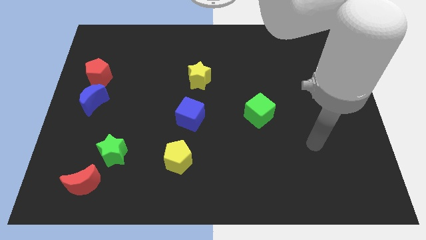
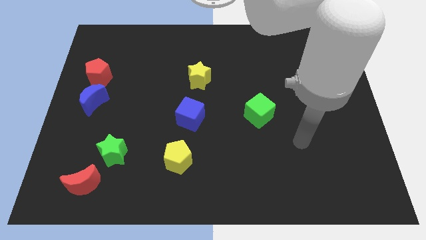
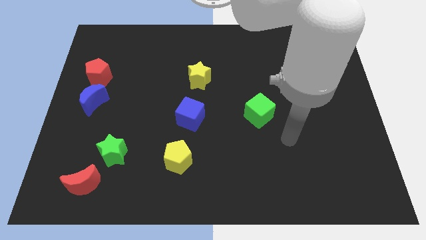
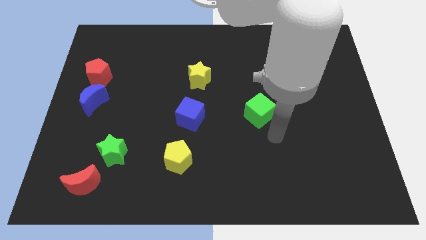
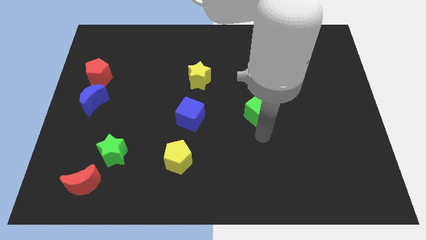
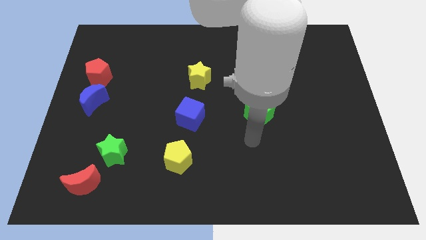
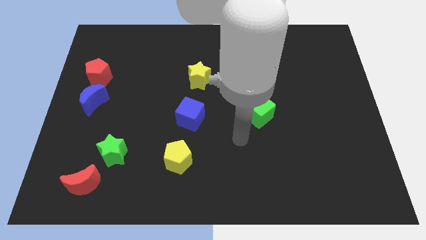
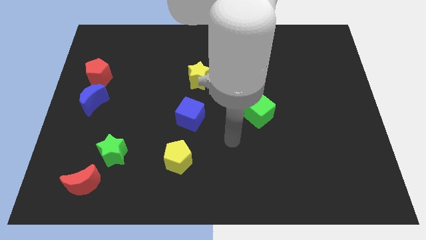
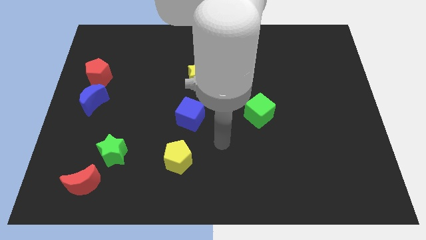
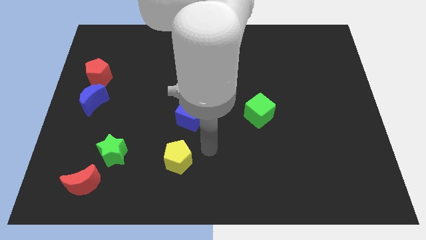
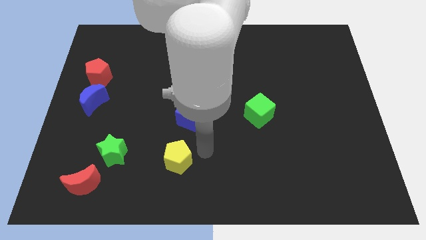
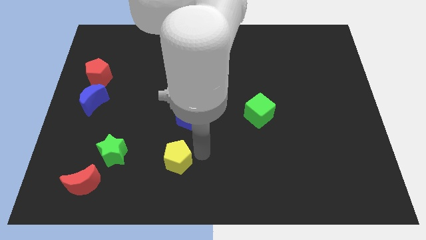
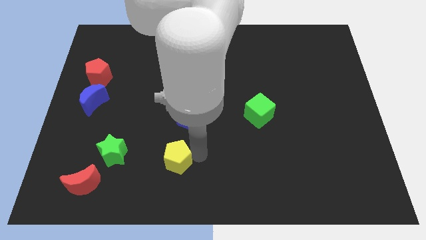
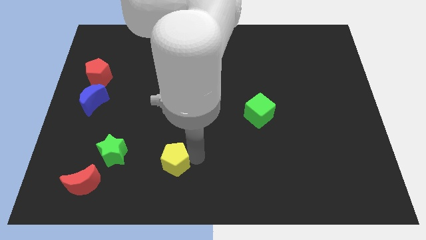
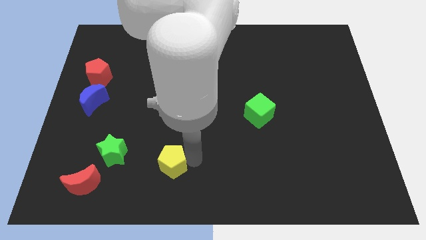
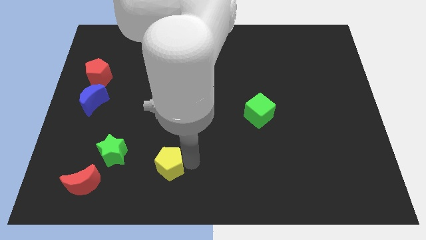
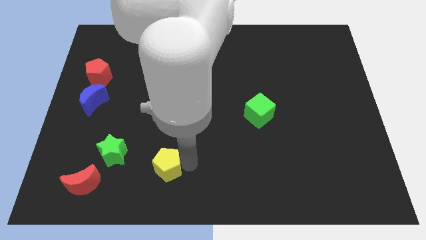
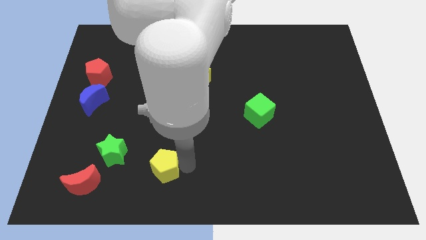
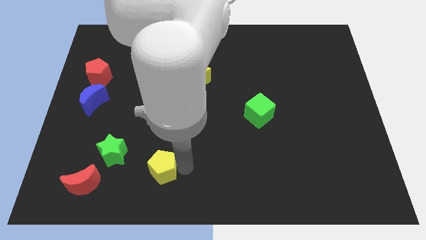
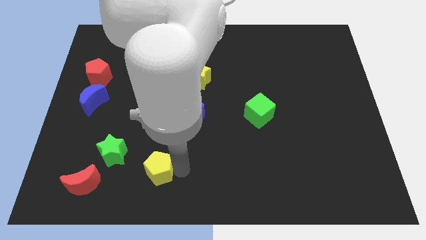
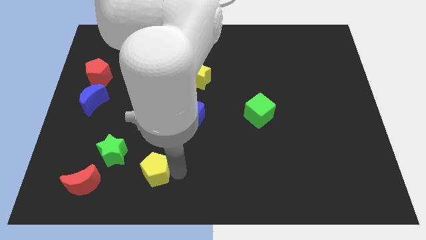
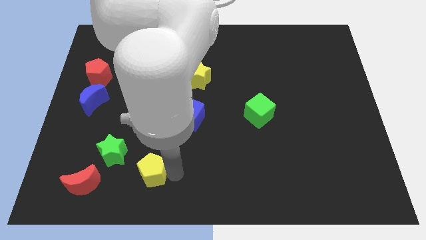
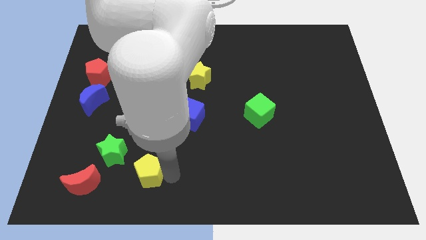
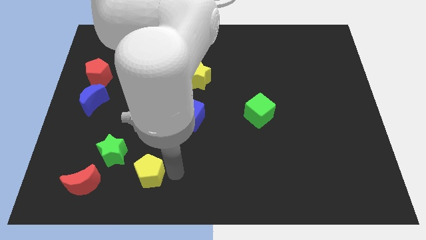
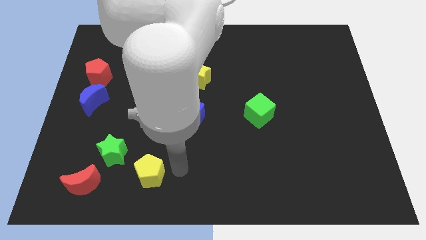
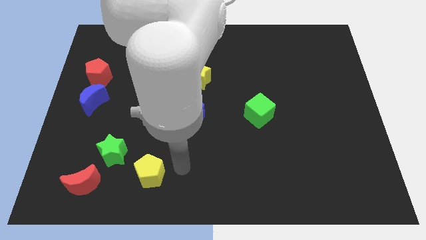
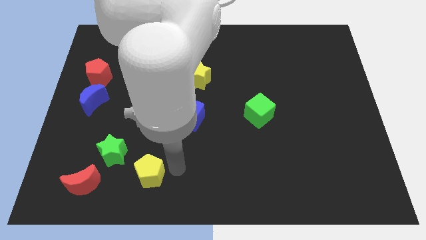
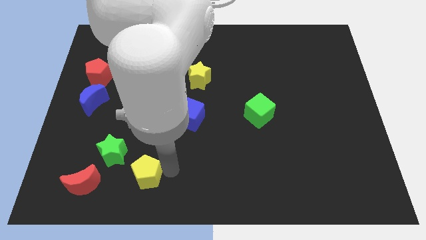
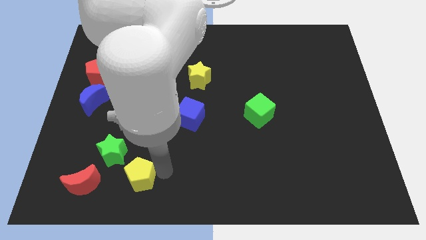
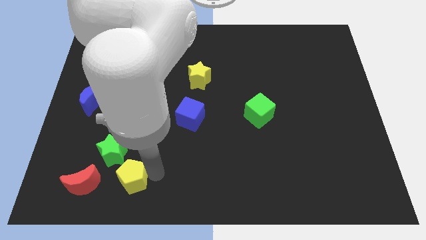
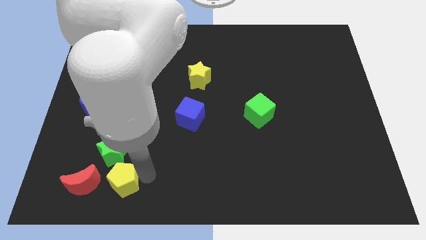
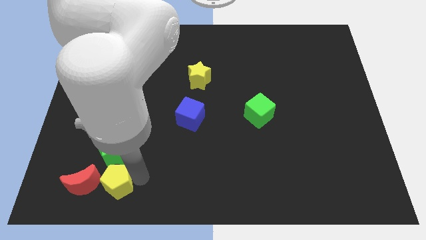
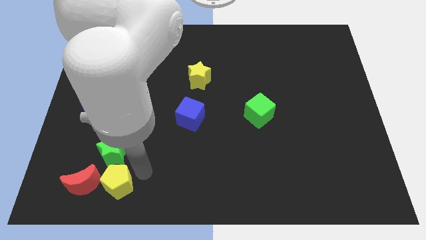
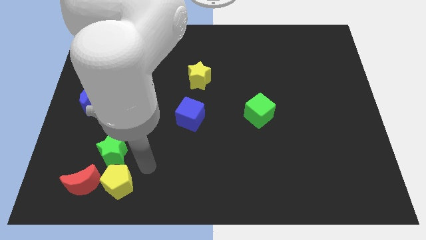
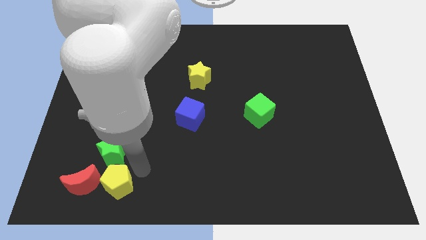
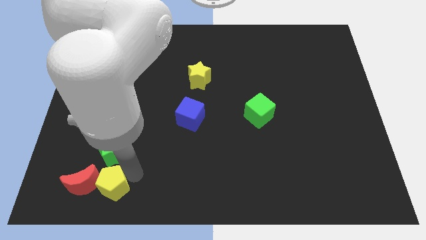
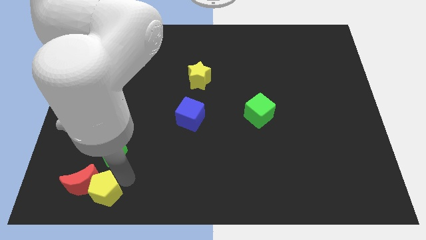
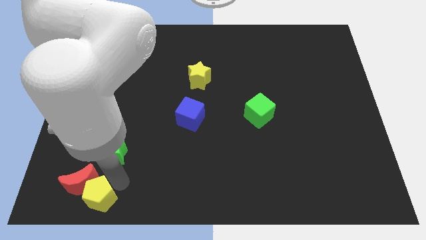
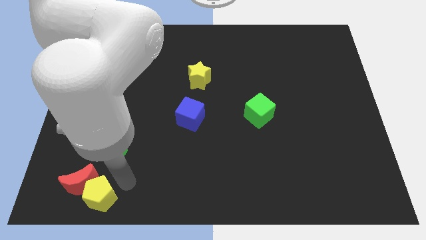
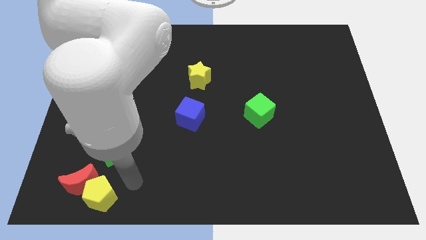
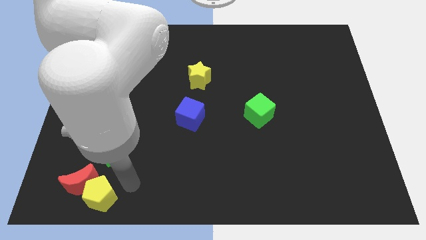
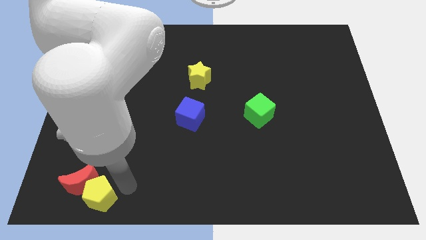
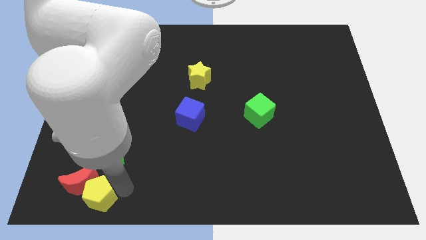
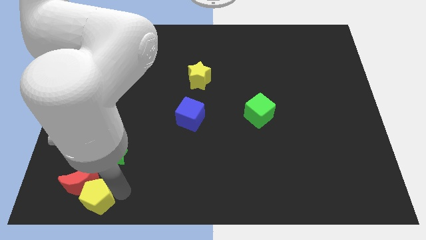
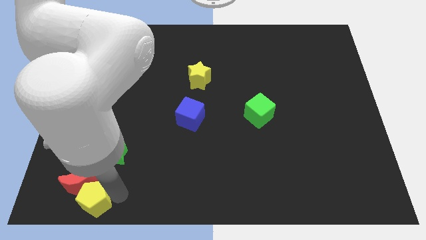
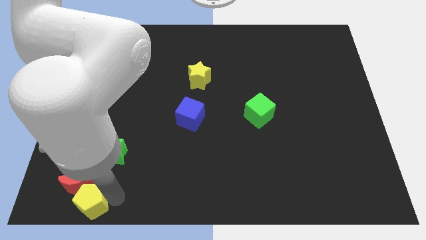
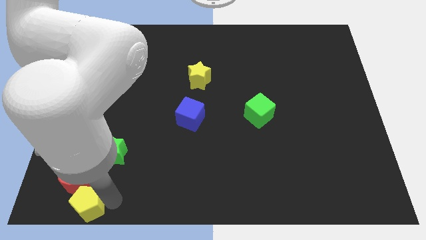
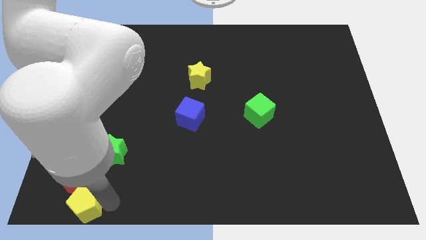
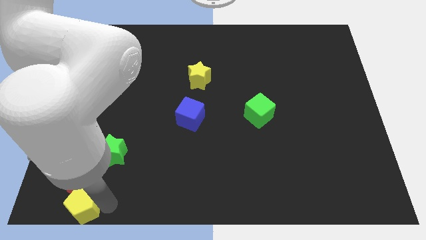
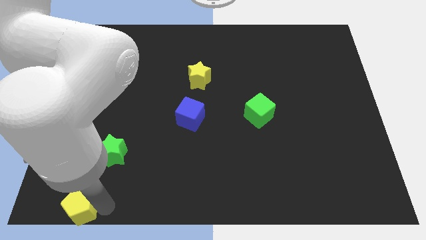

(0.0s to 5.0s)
push the yellow pentagon to the lower left corner

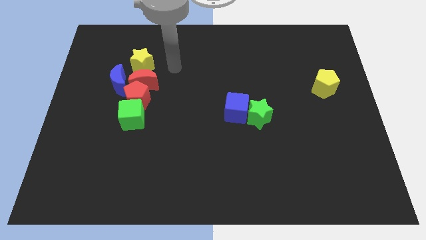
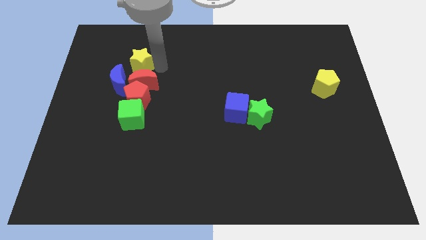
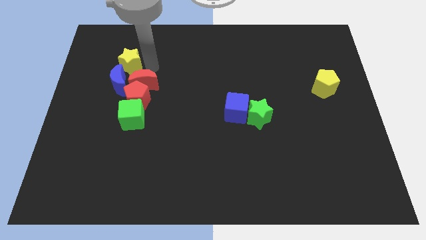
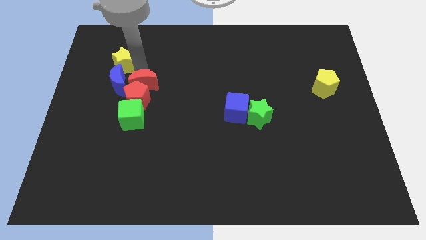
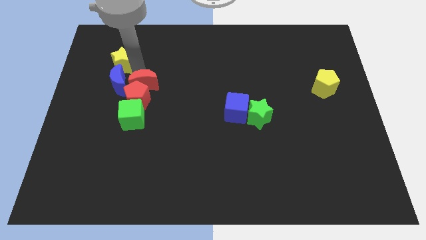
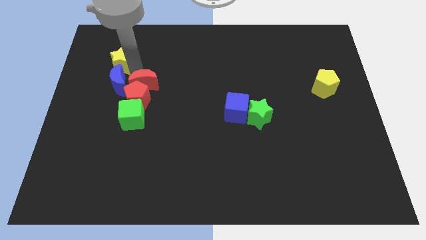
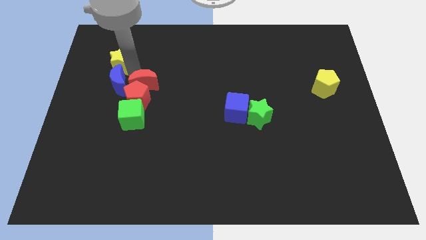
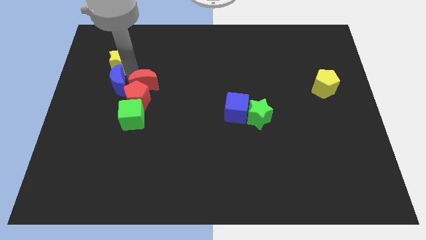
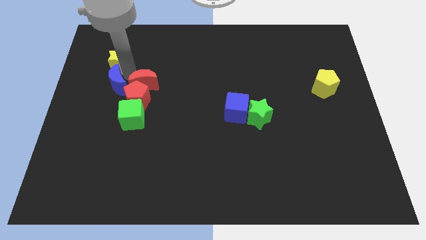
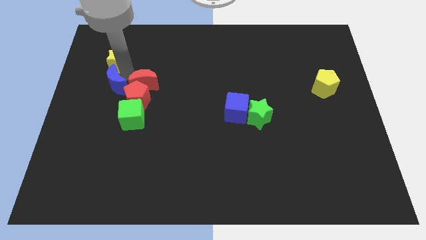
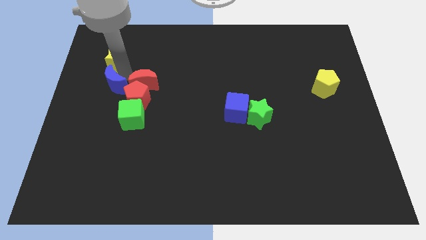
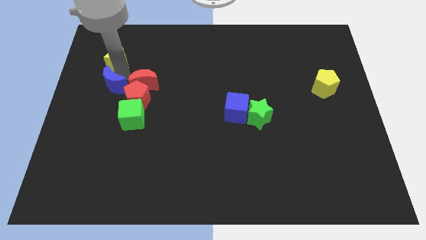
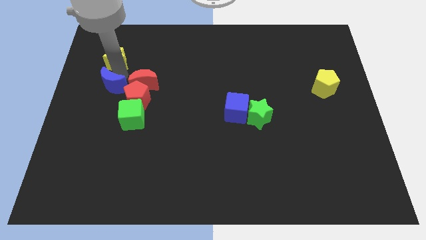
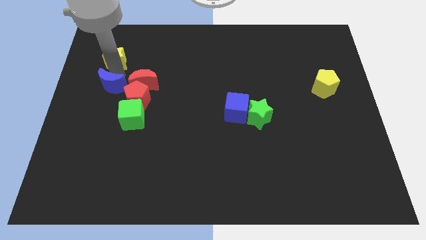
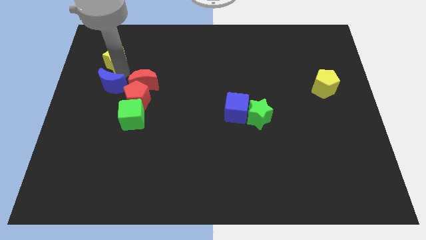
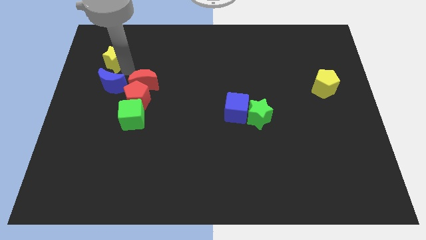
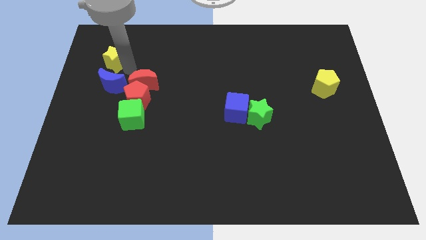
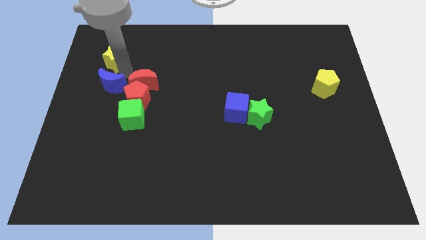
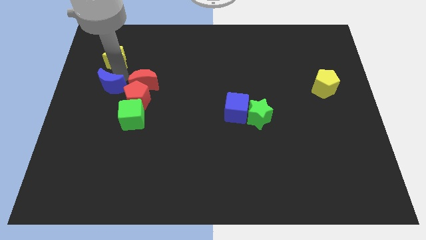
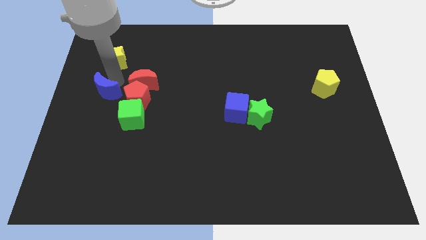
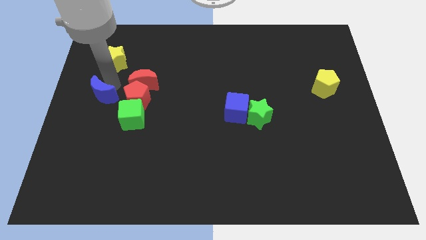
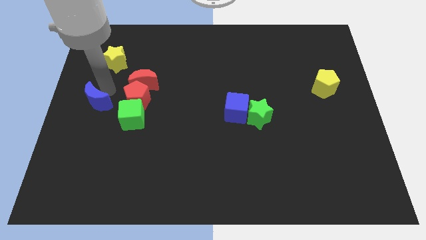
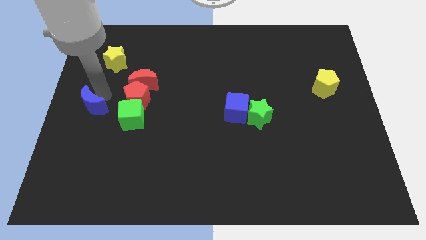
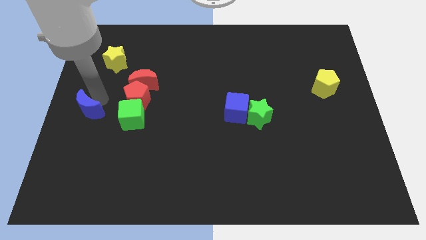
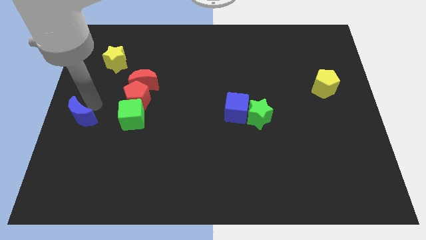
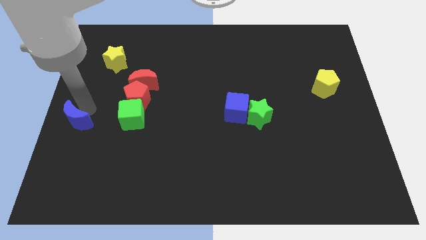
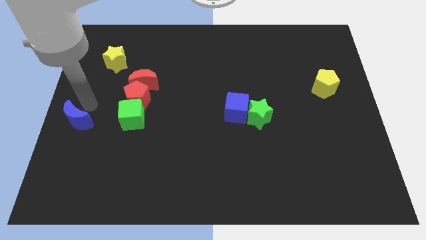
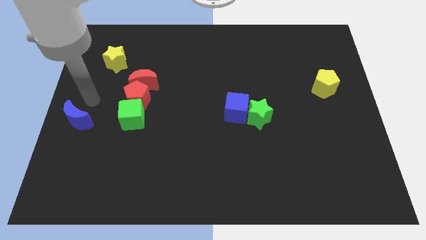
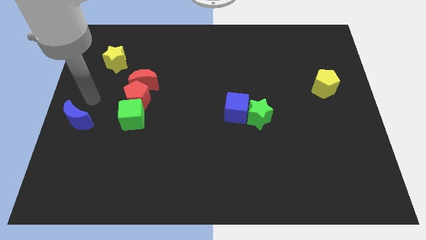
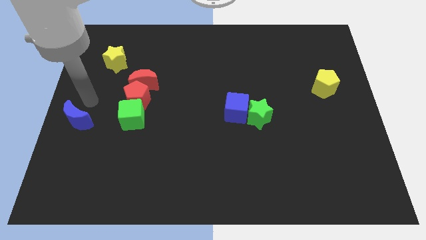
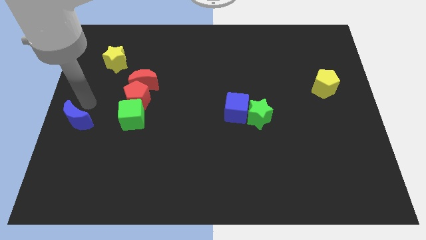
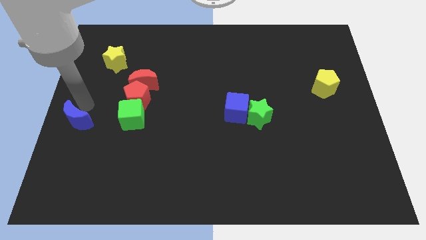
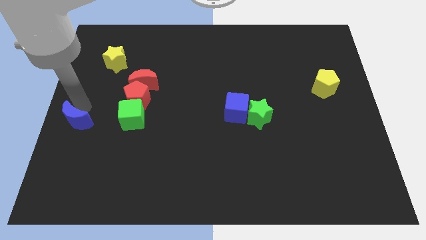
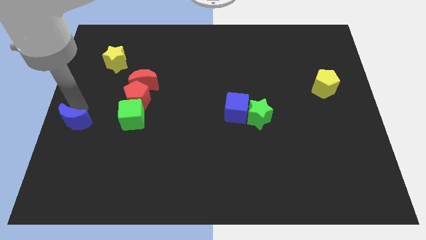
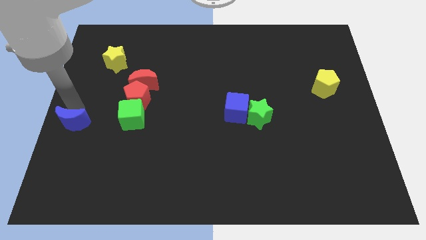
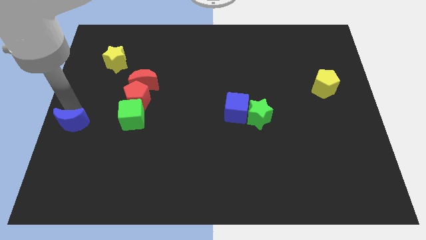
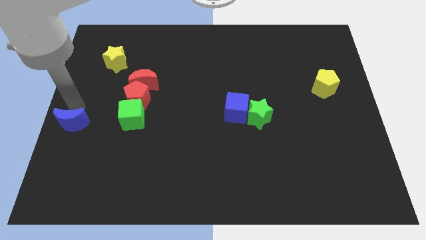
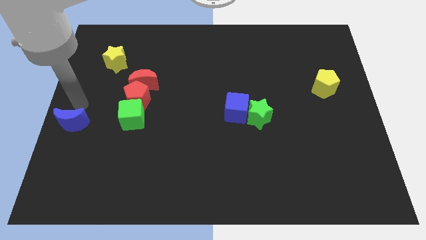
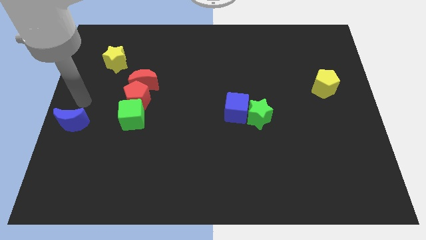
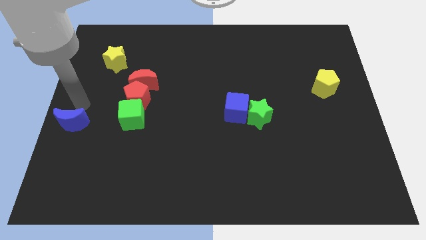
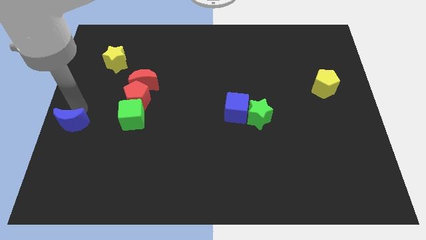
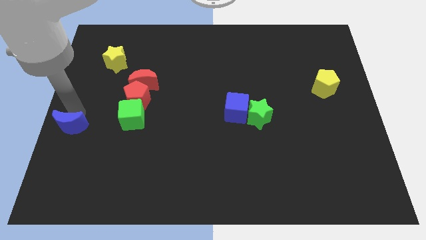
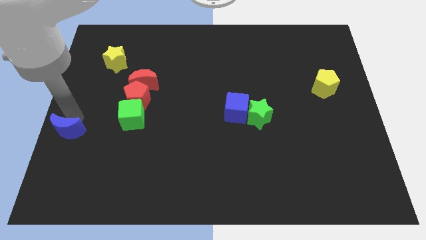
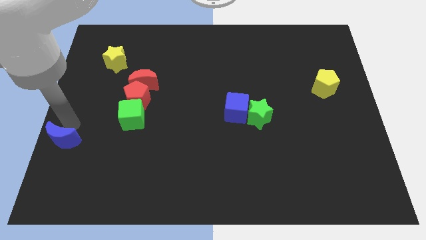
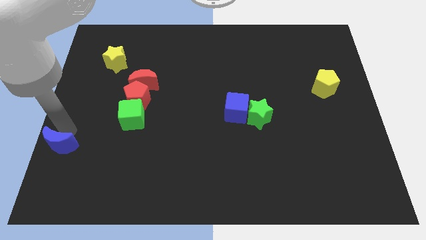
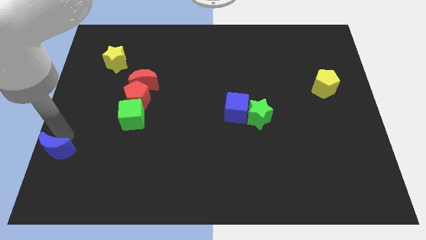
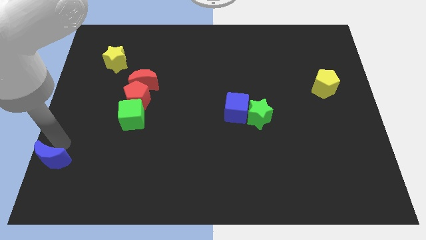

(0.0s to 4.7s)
move the blue moon to the bottom left of the board
